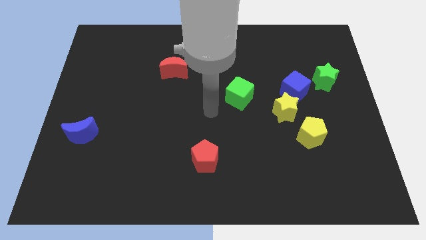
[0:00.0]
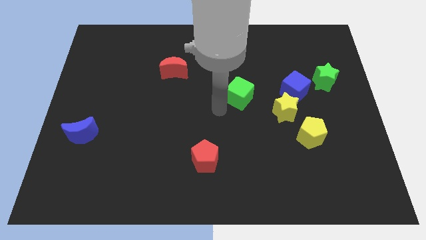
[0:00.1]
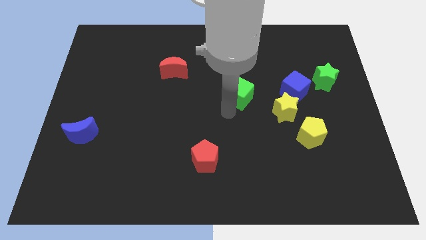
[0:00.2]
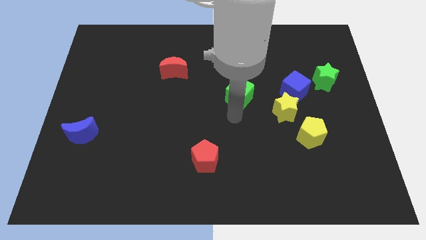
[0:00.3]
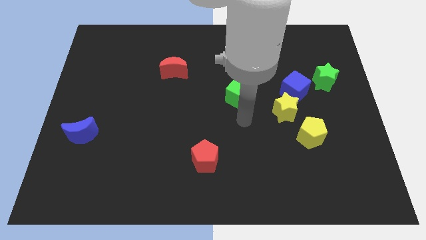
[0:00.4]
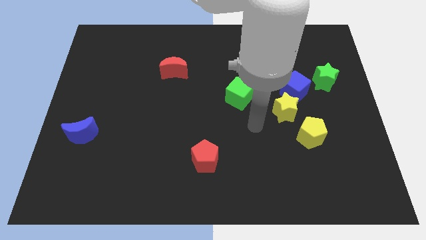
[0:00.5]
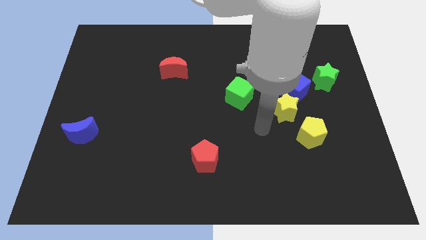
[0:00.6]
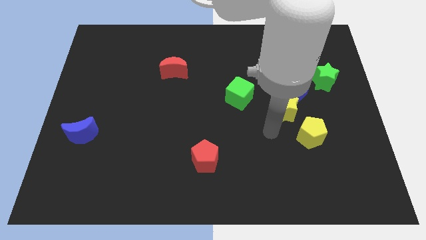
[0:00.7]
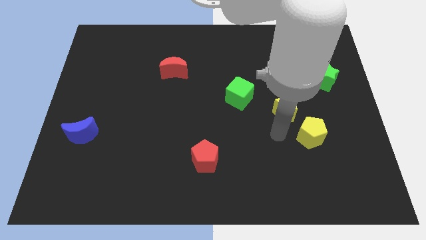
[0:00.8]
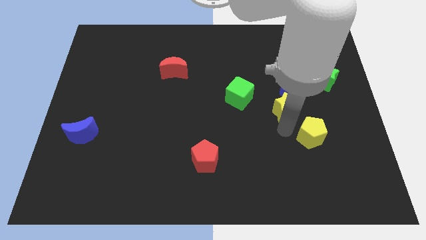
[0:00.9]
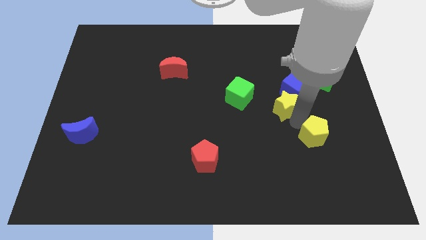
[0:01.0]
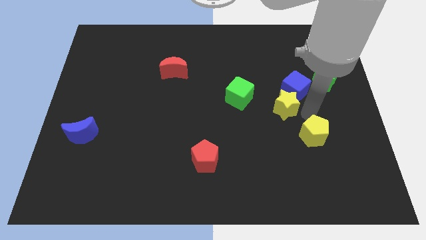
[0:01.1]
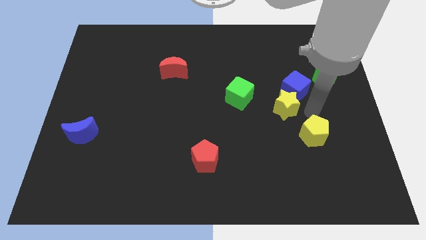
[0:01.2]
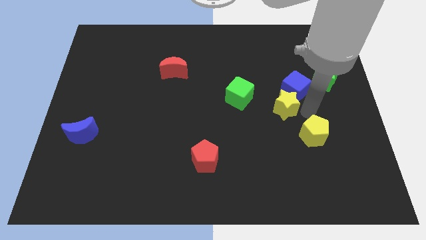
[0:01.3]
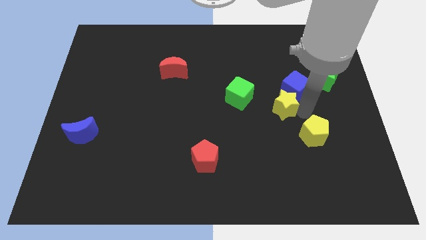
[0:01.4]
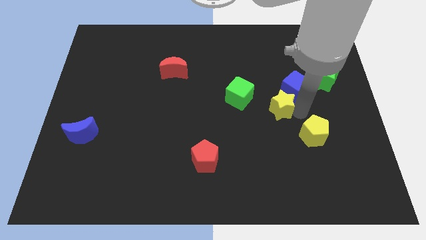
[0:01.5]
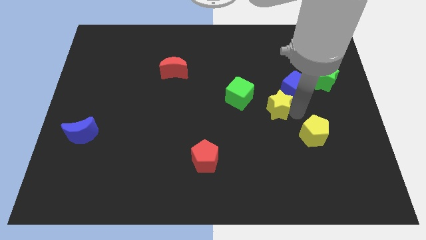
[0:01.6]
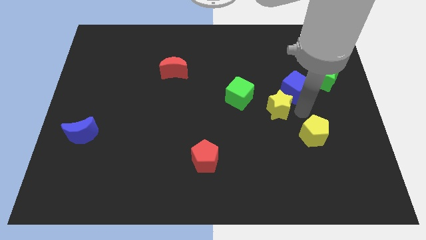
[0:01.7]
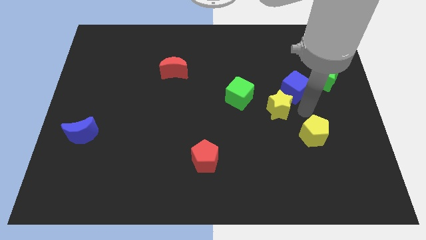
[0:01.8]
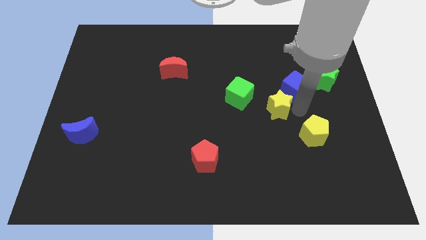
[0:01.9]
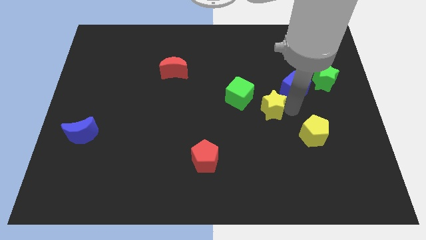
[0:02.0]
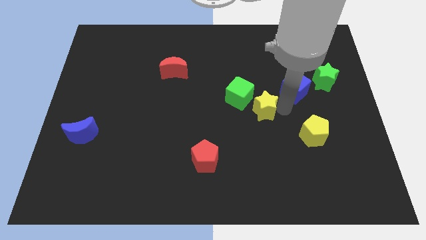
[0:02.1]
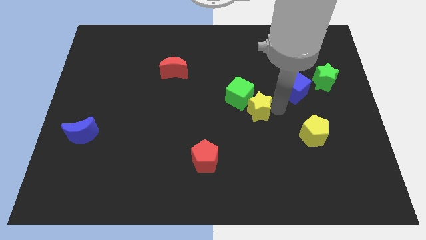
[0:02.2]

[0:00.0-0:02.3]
move the yellow star away from the blue cube and yellow pentagon

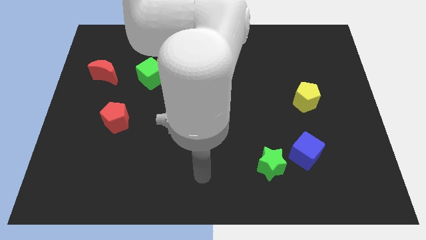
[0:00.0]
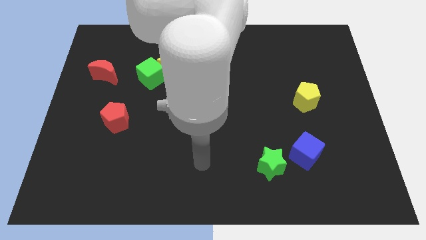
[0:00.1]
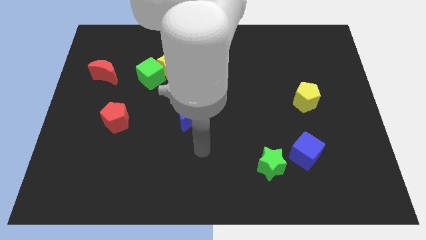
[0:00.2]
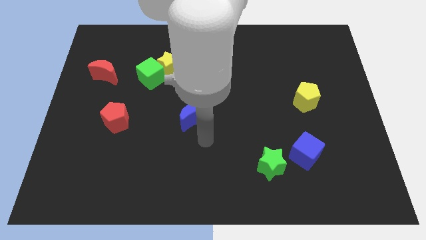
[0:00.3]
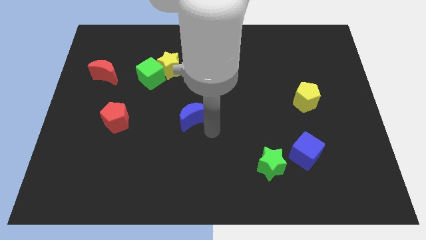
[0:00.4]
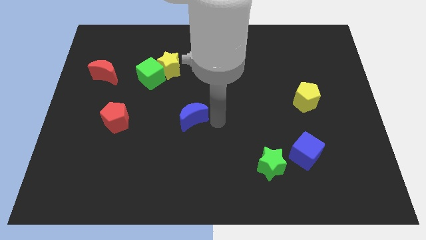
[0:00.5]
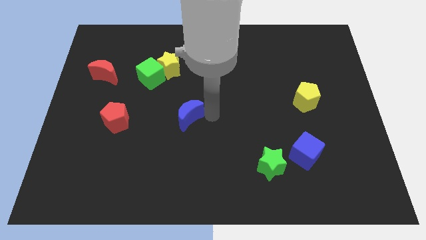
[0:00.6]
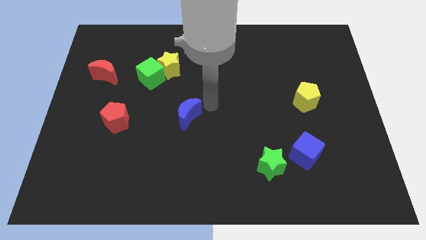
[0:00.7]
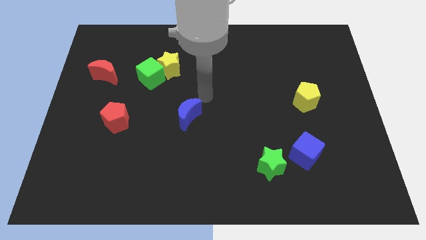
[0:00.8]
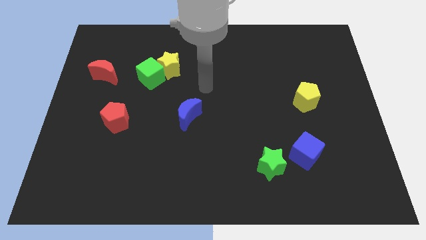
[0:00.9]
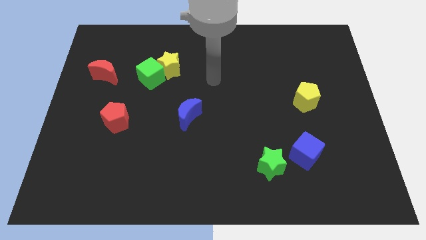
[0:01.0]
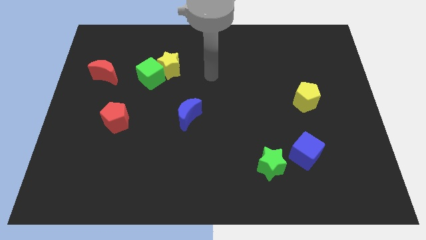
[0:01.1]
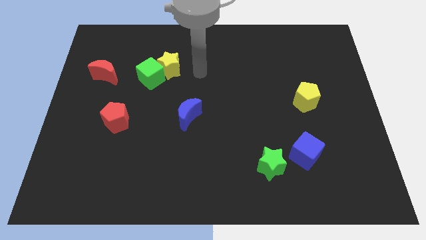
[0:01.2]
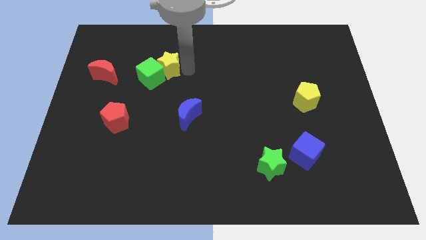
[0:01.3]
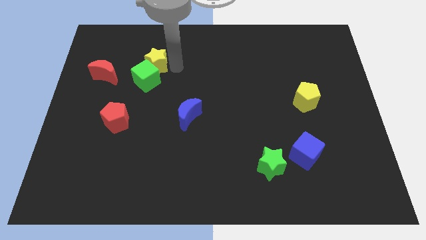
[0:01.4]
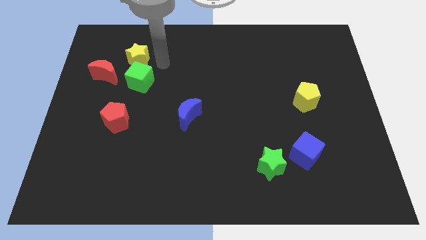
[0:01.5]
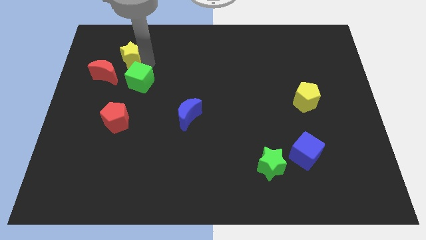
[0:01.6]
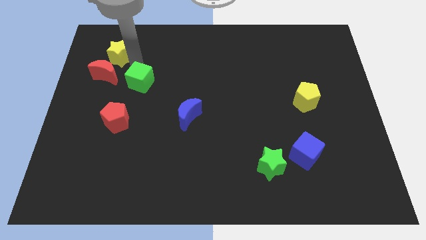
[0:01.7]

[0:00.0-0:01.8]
pull the green cube apart from the yellow star

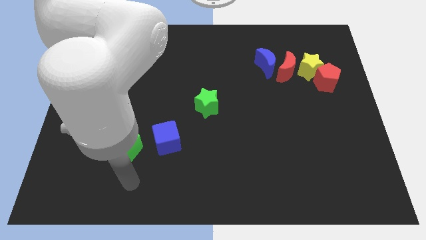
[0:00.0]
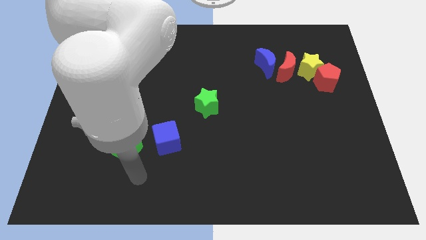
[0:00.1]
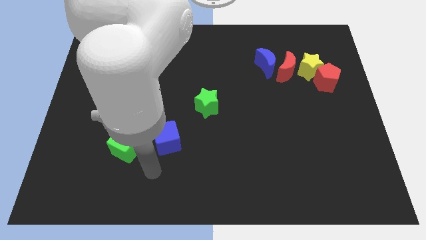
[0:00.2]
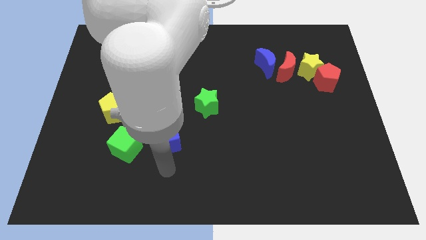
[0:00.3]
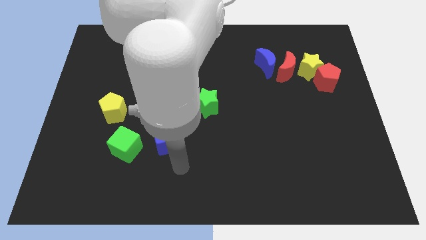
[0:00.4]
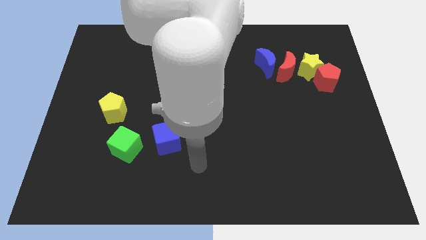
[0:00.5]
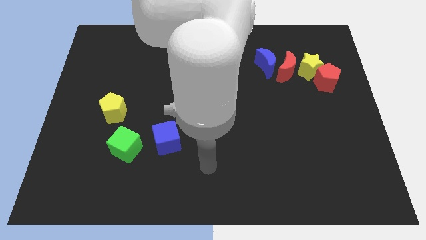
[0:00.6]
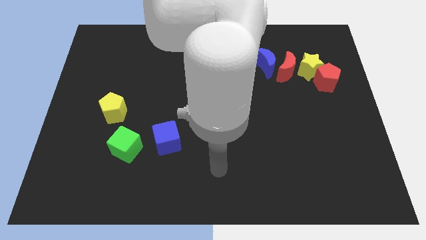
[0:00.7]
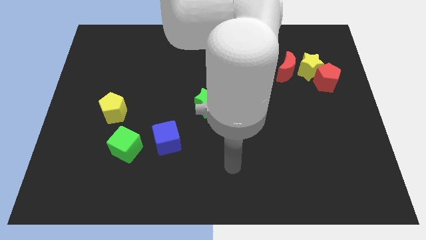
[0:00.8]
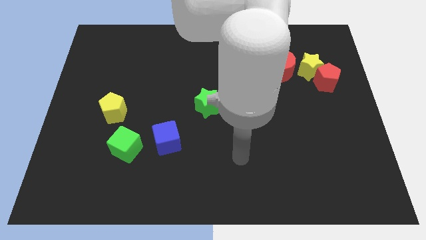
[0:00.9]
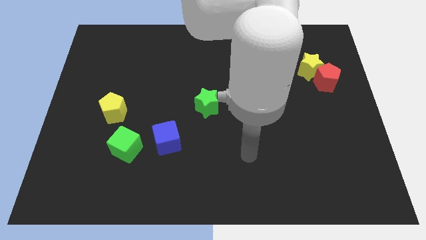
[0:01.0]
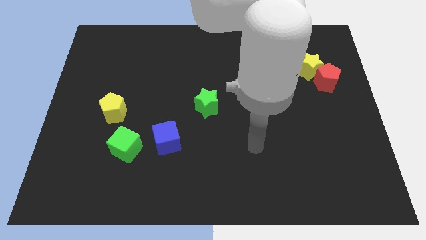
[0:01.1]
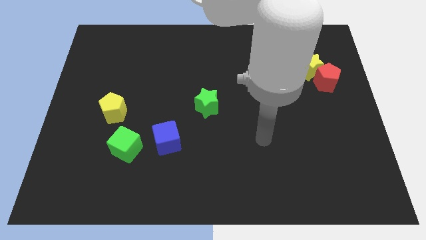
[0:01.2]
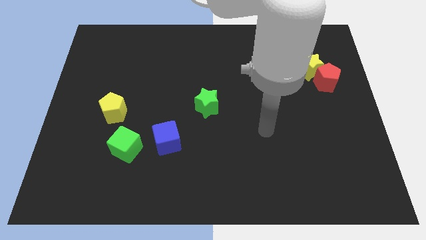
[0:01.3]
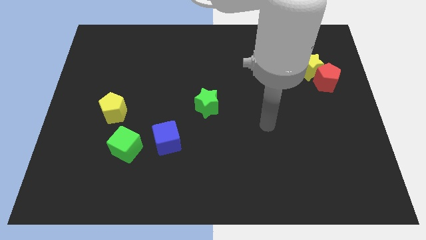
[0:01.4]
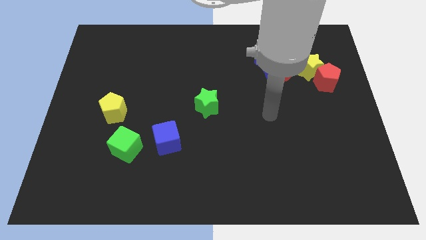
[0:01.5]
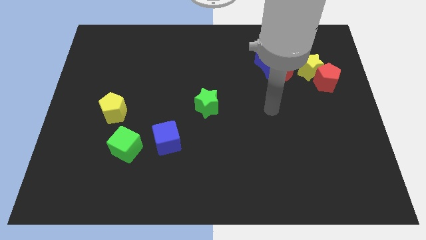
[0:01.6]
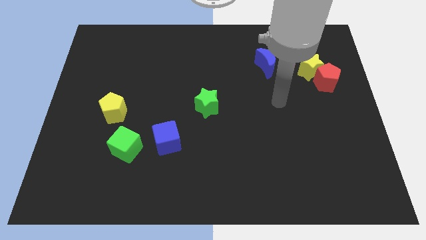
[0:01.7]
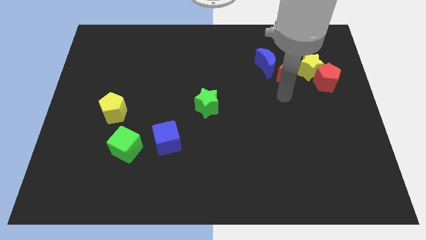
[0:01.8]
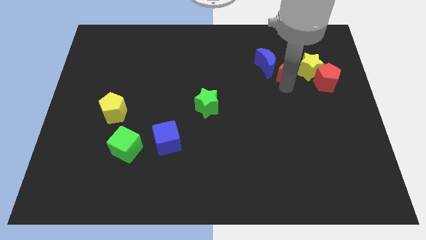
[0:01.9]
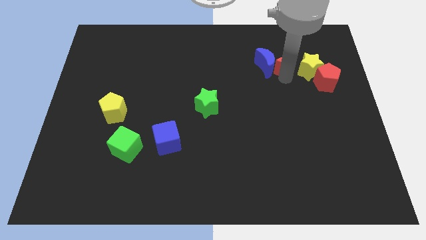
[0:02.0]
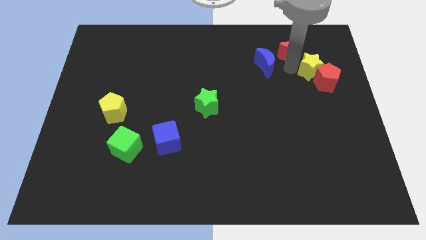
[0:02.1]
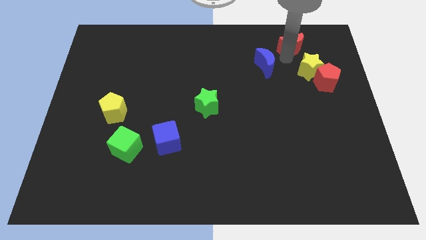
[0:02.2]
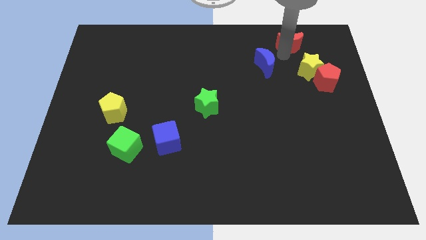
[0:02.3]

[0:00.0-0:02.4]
pull the blue moon apart from the red moon

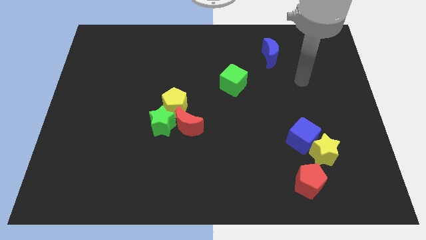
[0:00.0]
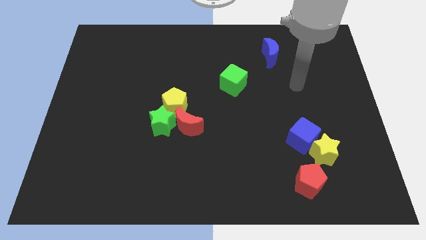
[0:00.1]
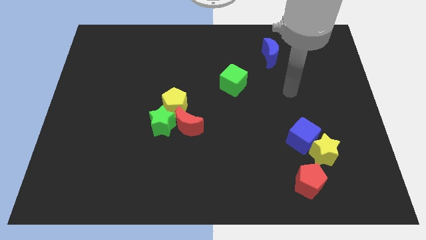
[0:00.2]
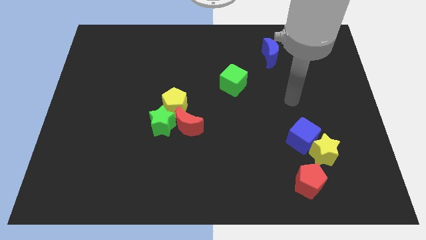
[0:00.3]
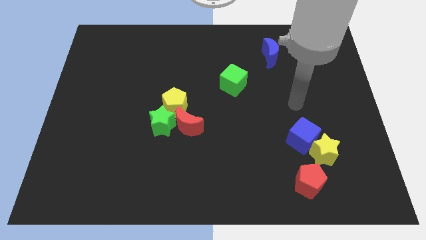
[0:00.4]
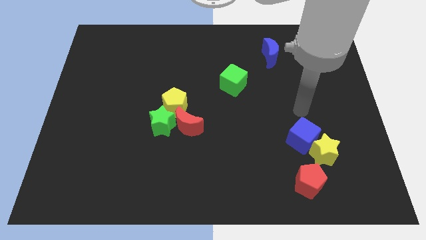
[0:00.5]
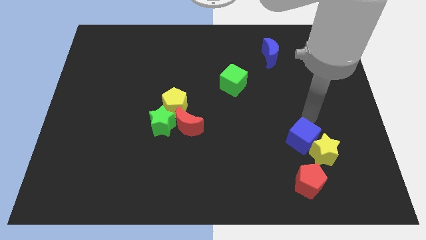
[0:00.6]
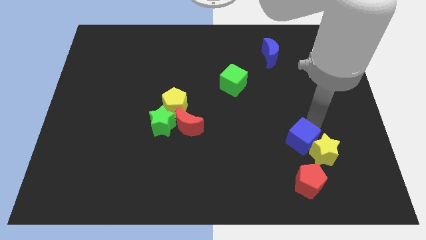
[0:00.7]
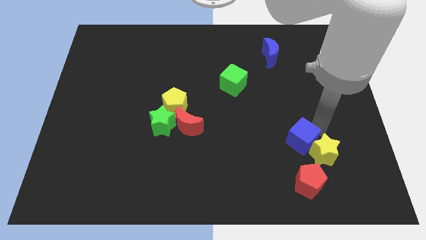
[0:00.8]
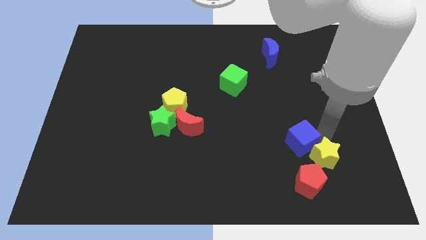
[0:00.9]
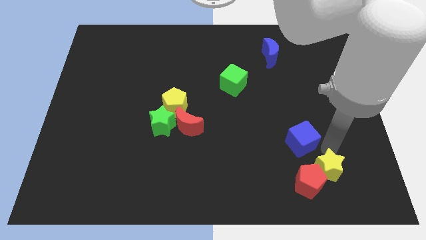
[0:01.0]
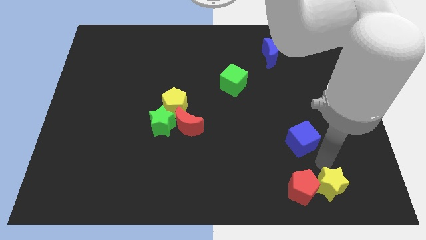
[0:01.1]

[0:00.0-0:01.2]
separate the blue cube from the yellow star

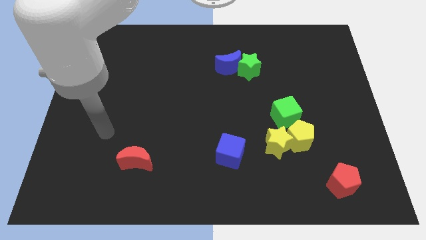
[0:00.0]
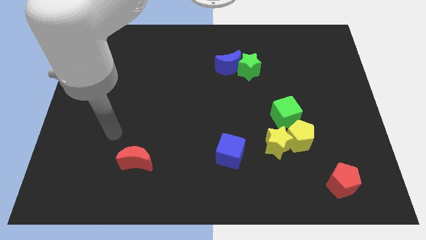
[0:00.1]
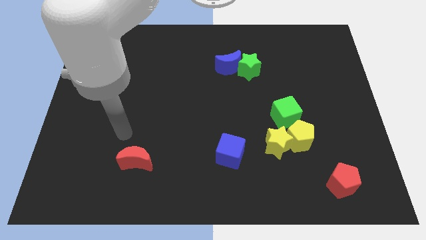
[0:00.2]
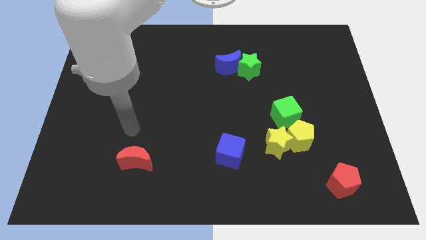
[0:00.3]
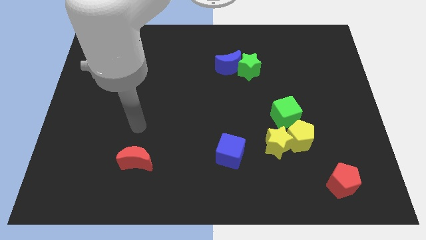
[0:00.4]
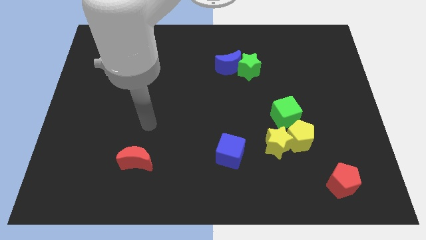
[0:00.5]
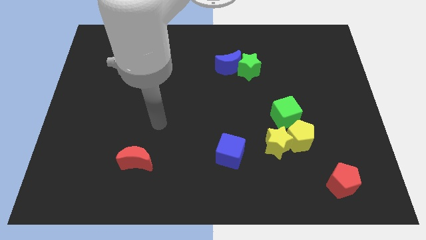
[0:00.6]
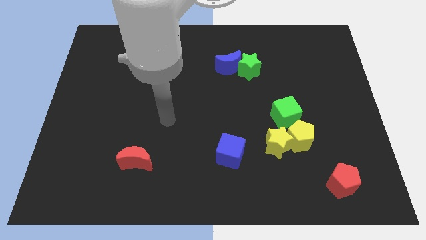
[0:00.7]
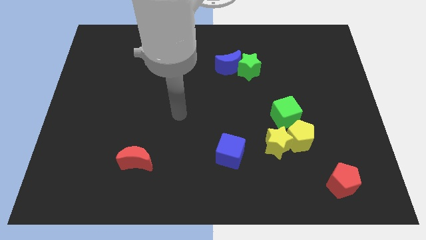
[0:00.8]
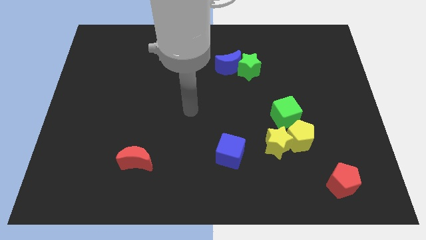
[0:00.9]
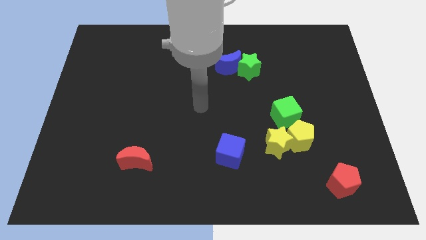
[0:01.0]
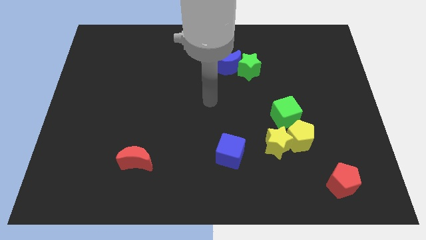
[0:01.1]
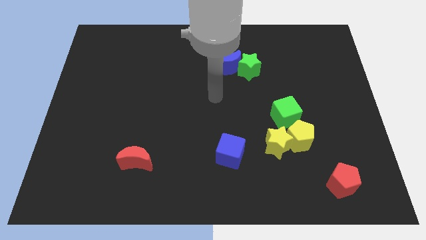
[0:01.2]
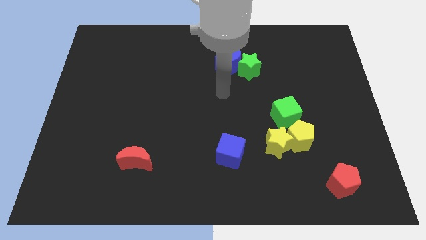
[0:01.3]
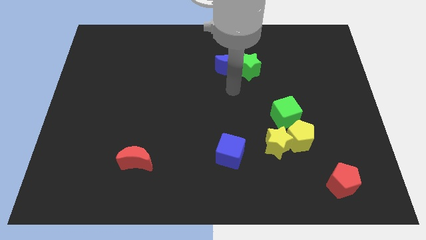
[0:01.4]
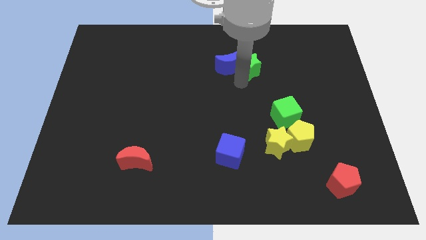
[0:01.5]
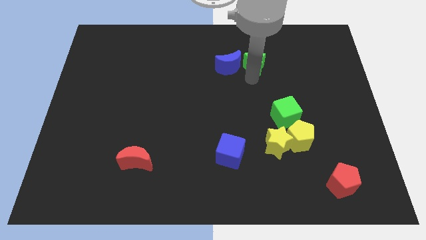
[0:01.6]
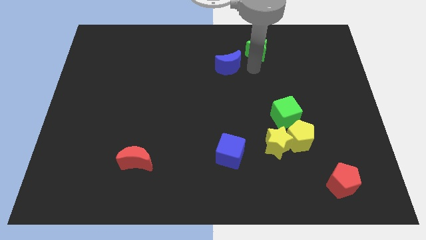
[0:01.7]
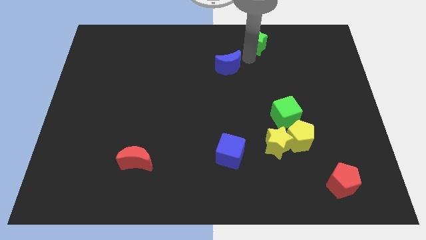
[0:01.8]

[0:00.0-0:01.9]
separate the blue moon from the green star
